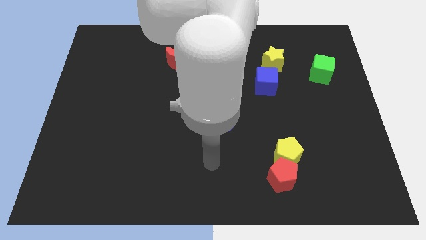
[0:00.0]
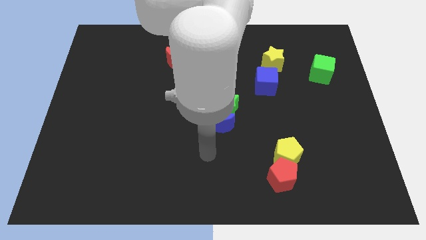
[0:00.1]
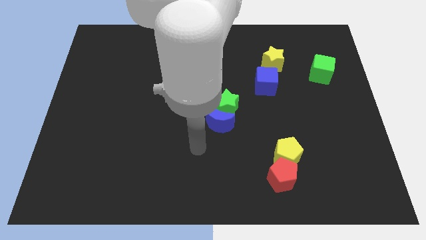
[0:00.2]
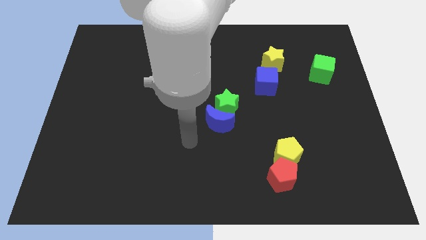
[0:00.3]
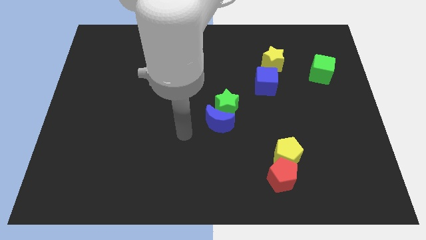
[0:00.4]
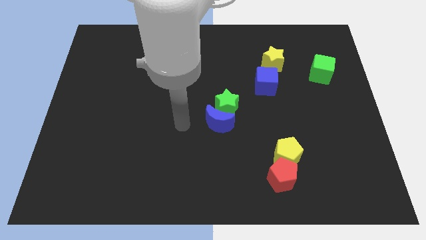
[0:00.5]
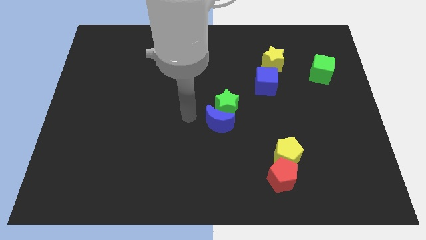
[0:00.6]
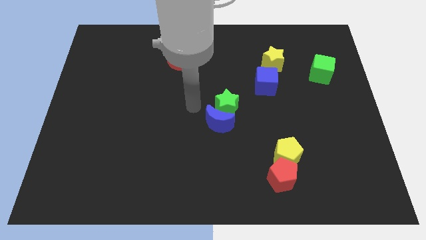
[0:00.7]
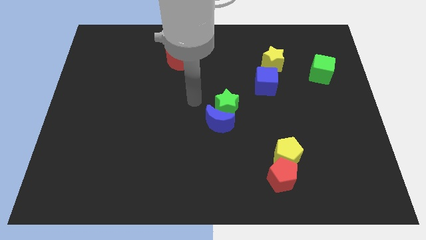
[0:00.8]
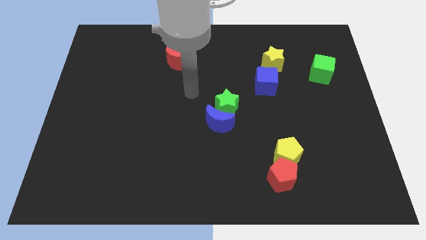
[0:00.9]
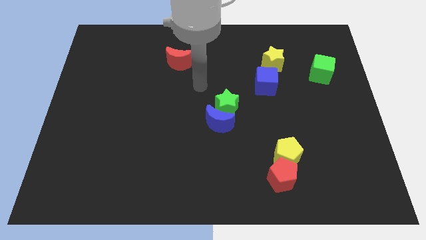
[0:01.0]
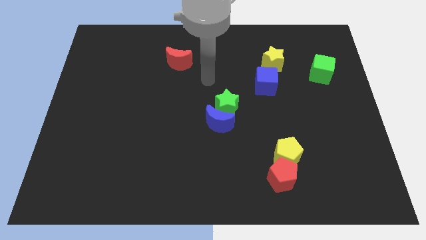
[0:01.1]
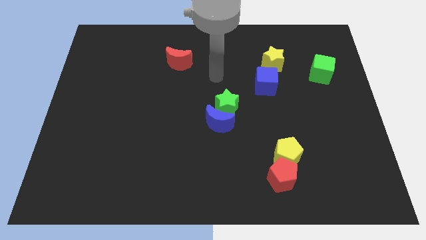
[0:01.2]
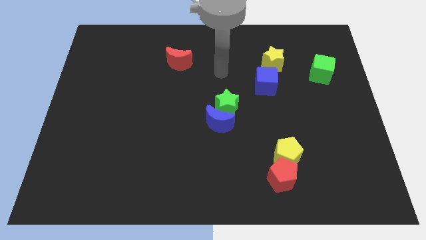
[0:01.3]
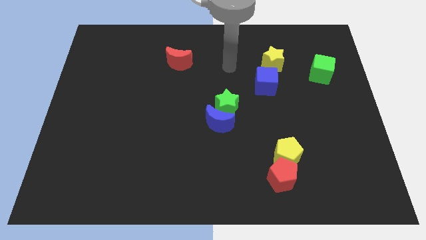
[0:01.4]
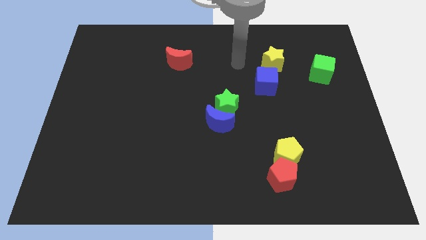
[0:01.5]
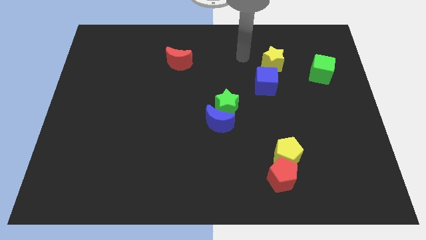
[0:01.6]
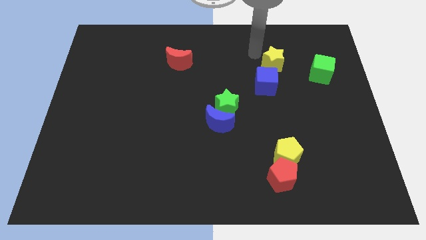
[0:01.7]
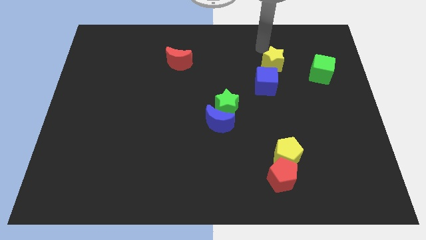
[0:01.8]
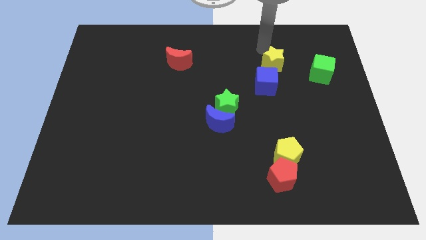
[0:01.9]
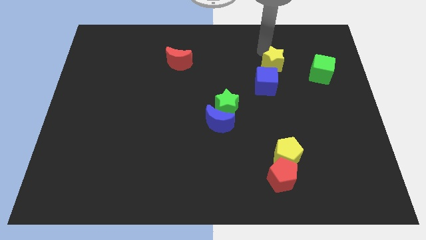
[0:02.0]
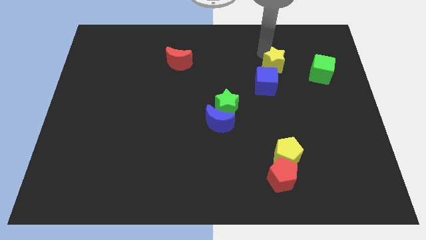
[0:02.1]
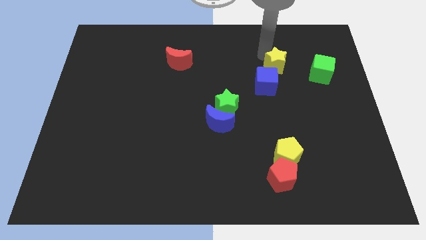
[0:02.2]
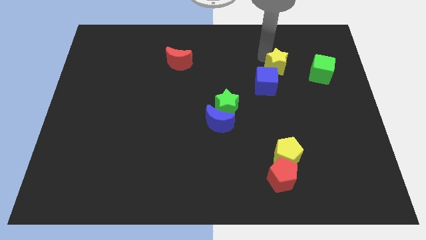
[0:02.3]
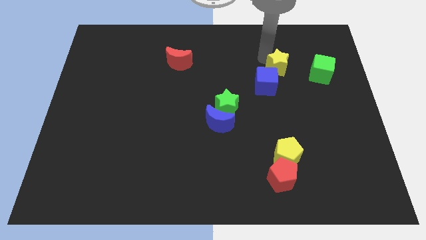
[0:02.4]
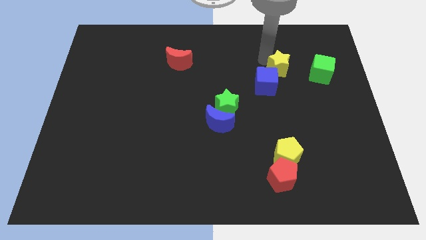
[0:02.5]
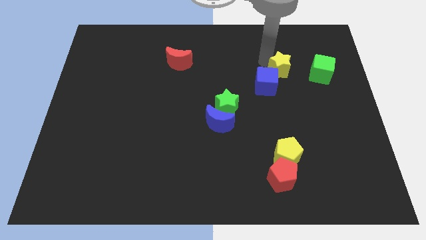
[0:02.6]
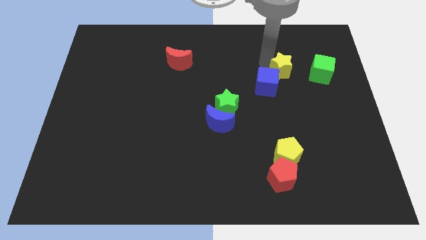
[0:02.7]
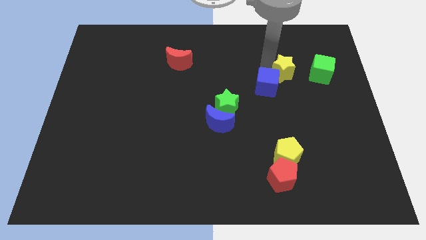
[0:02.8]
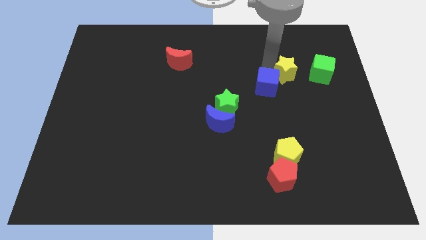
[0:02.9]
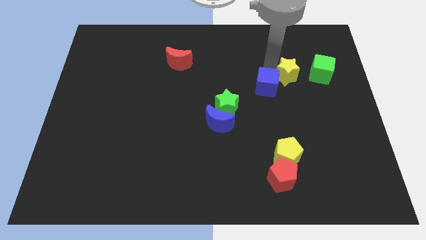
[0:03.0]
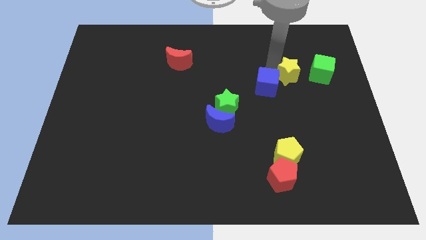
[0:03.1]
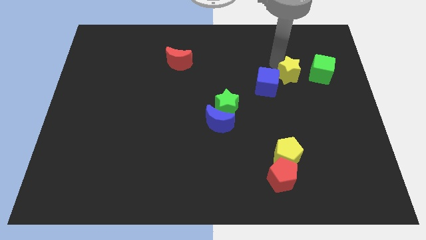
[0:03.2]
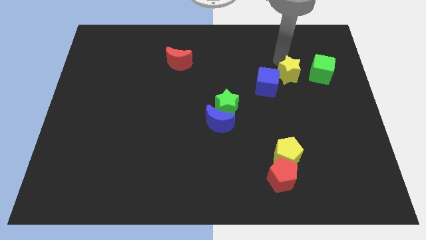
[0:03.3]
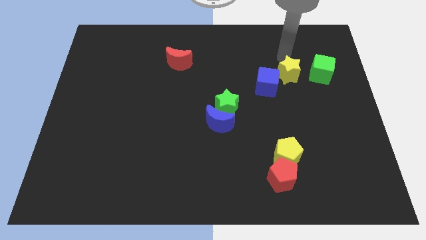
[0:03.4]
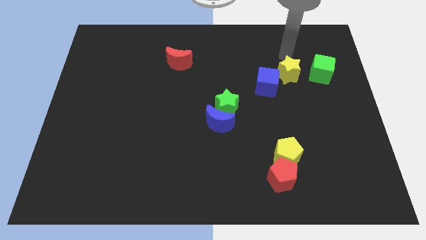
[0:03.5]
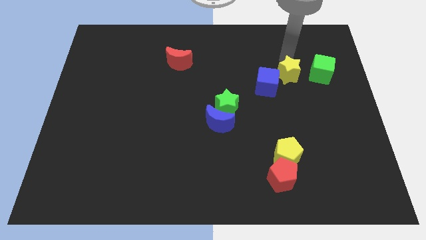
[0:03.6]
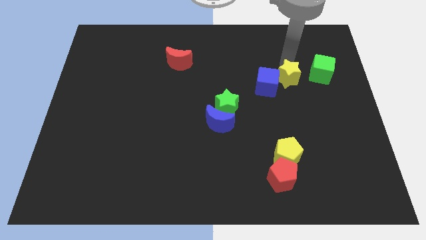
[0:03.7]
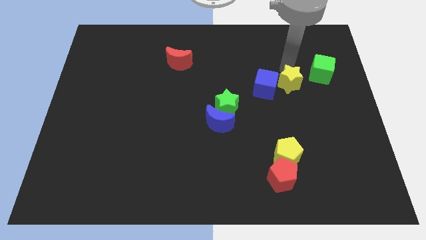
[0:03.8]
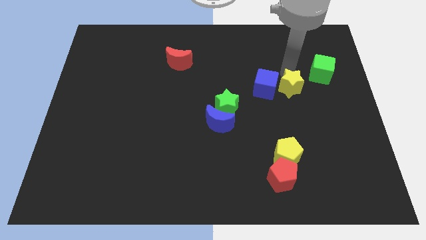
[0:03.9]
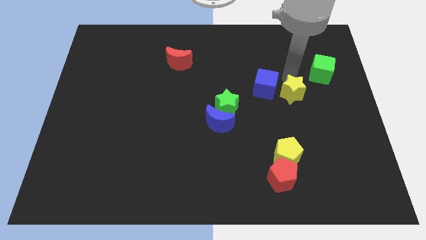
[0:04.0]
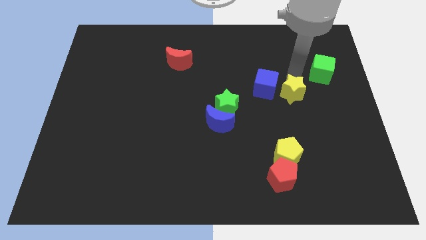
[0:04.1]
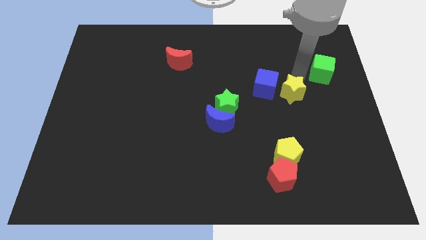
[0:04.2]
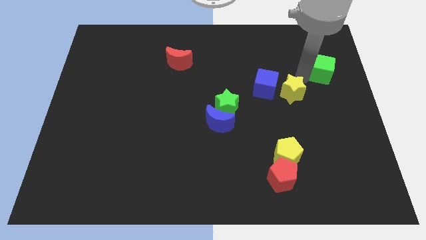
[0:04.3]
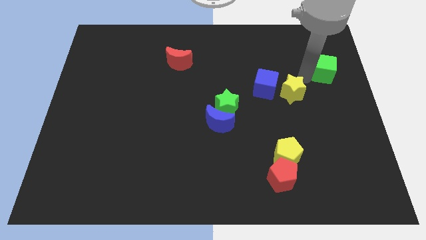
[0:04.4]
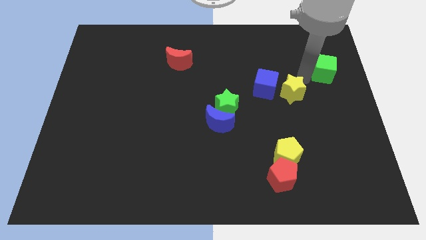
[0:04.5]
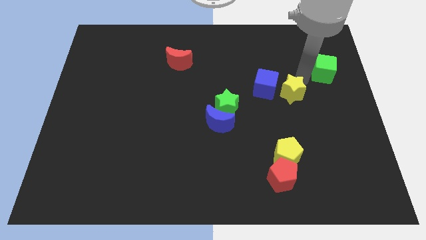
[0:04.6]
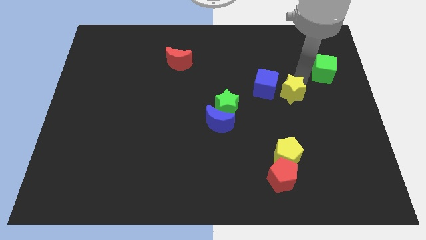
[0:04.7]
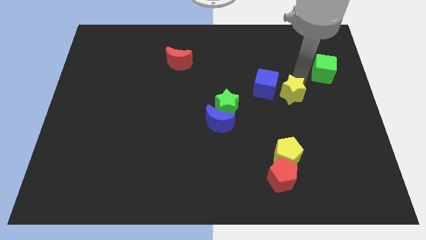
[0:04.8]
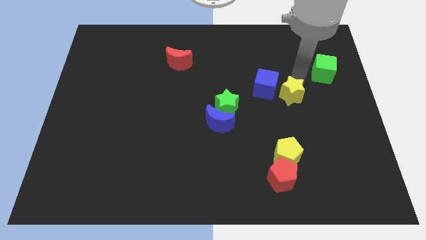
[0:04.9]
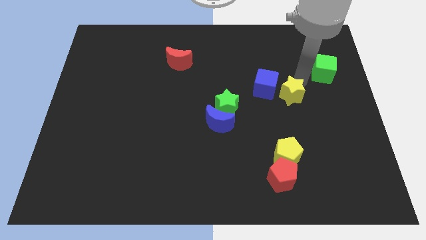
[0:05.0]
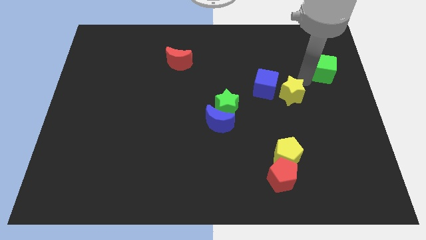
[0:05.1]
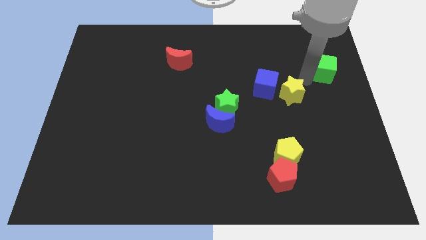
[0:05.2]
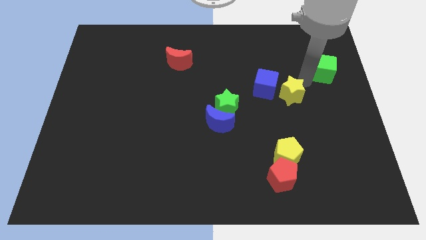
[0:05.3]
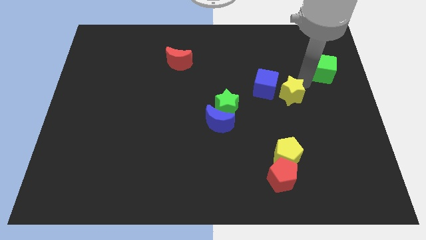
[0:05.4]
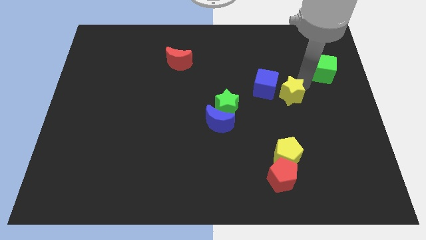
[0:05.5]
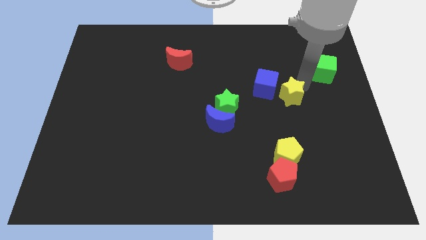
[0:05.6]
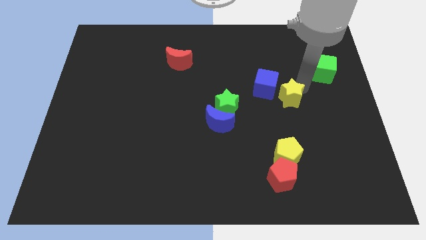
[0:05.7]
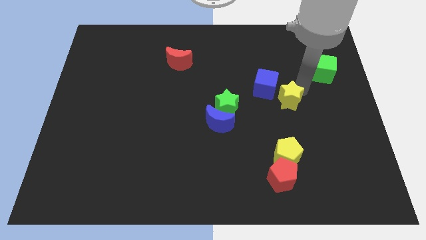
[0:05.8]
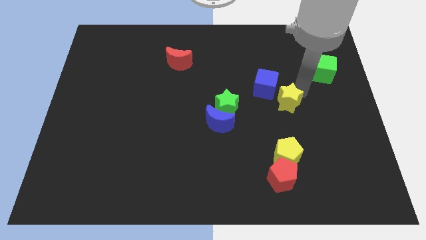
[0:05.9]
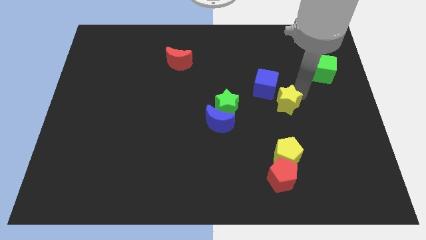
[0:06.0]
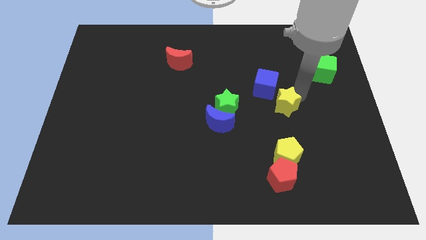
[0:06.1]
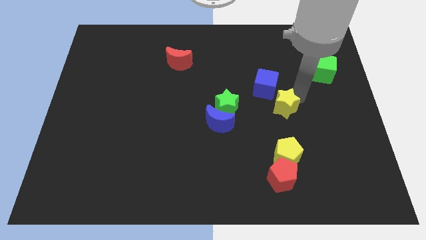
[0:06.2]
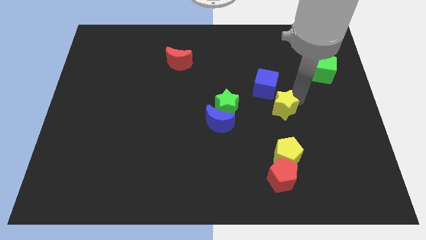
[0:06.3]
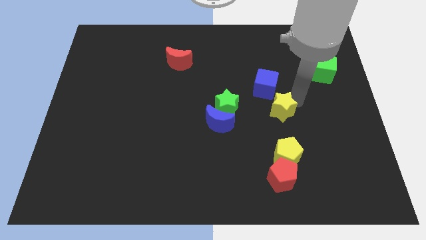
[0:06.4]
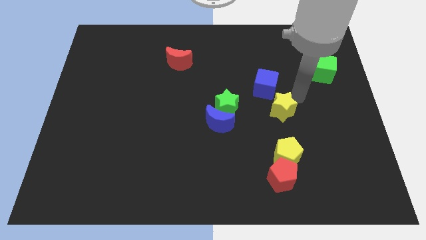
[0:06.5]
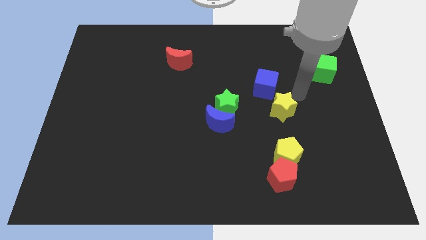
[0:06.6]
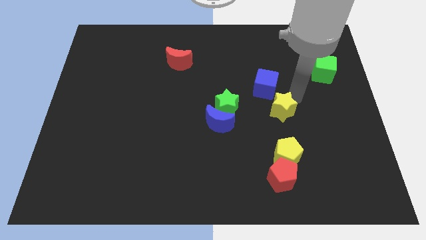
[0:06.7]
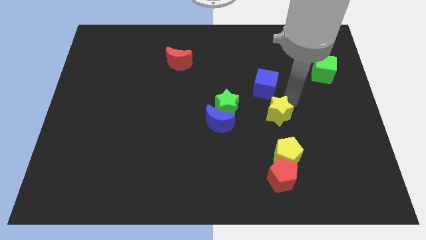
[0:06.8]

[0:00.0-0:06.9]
slide the yellow star just right of the blue moon
